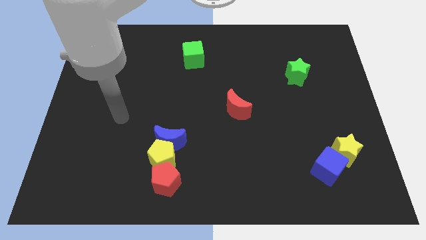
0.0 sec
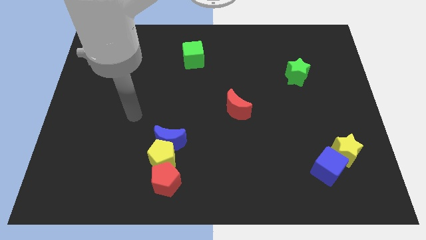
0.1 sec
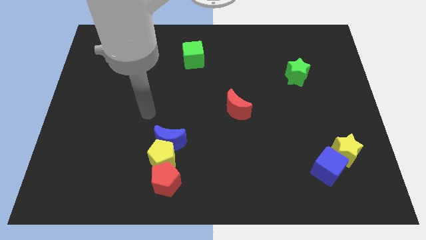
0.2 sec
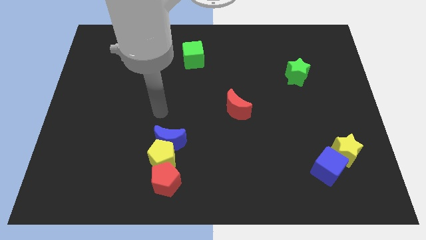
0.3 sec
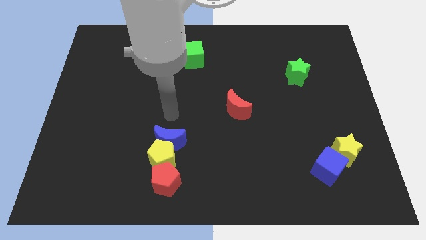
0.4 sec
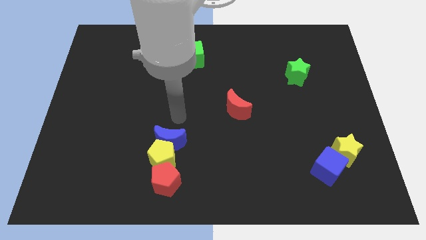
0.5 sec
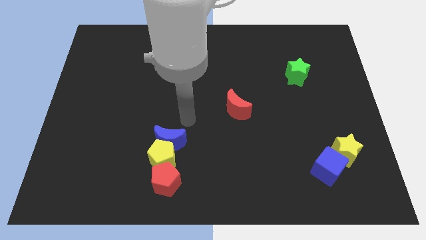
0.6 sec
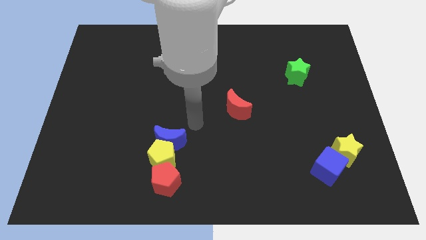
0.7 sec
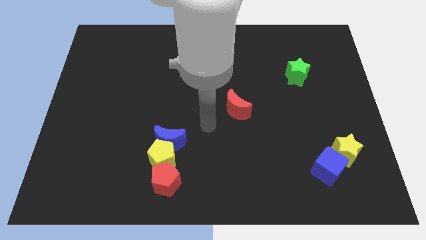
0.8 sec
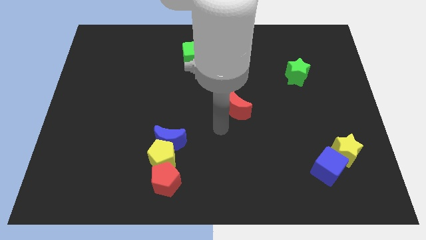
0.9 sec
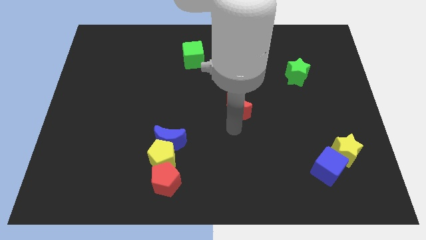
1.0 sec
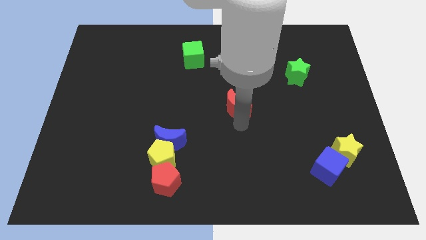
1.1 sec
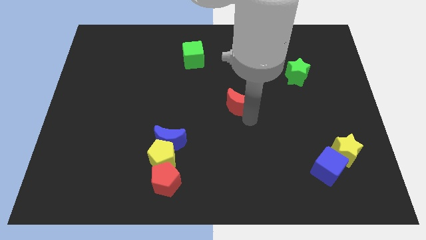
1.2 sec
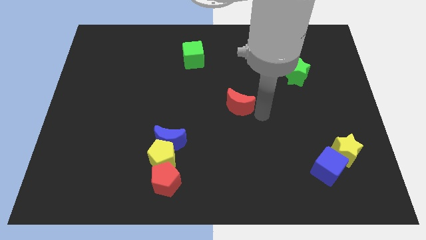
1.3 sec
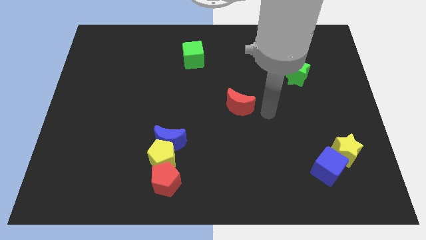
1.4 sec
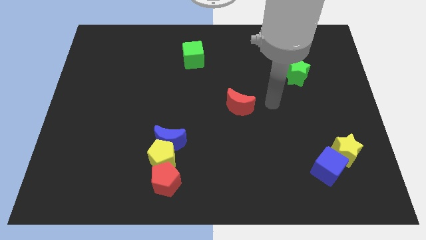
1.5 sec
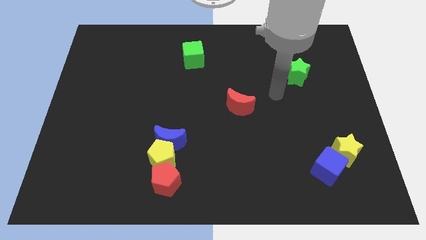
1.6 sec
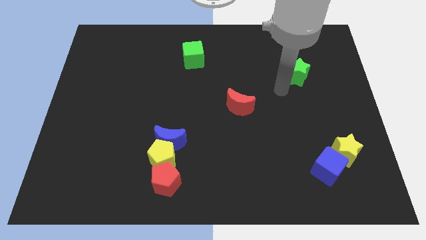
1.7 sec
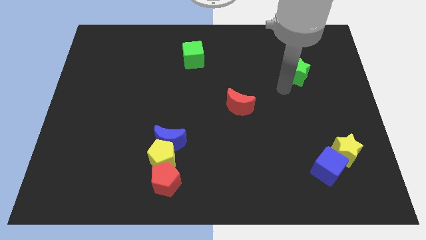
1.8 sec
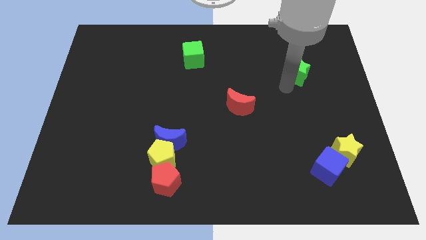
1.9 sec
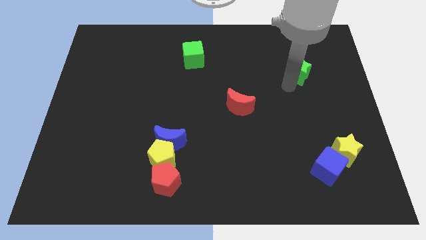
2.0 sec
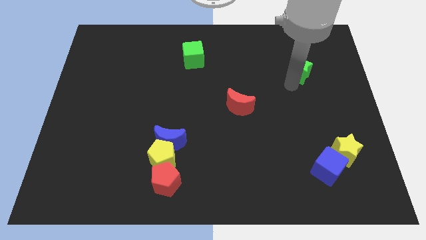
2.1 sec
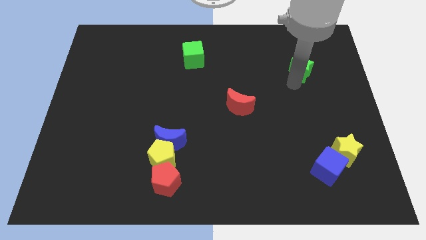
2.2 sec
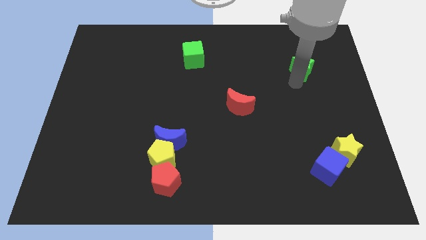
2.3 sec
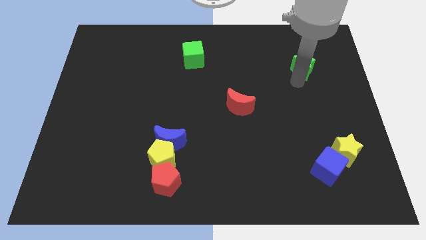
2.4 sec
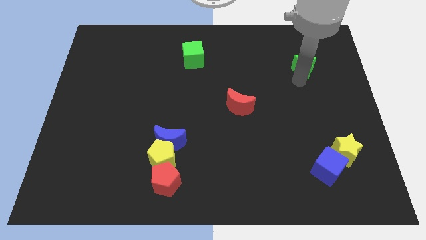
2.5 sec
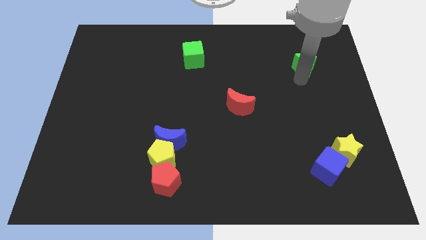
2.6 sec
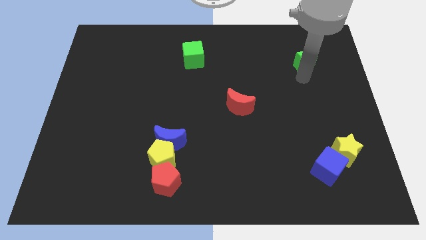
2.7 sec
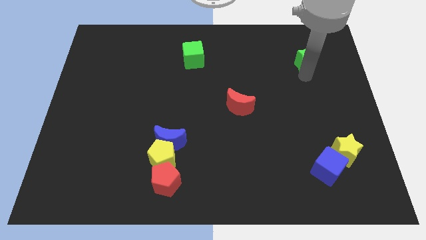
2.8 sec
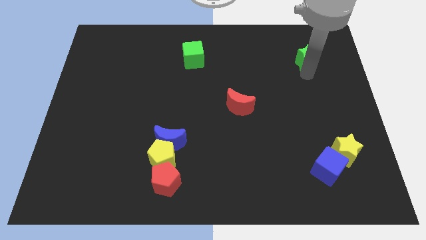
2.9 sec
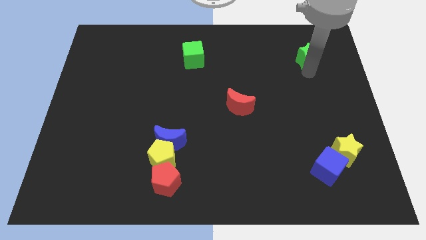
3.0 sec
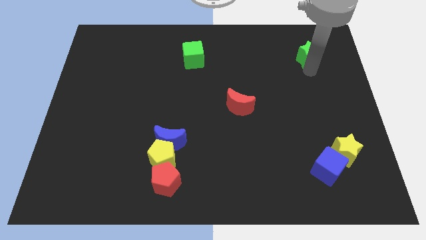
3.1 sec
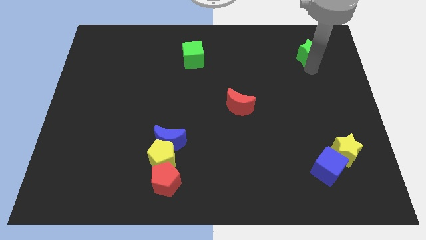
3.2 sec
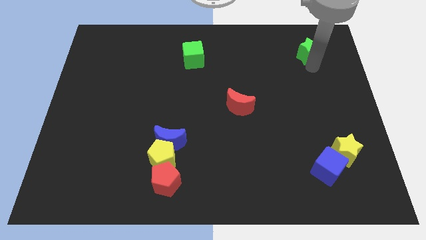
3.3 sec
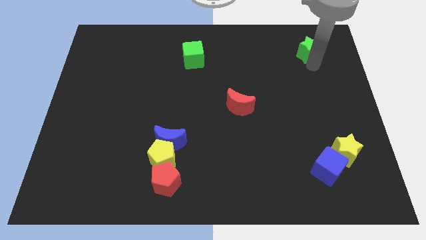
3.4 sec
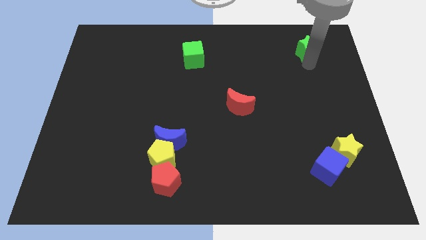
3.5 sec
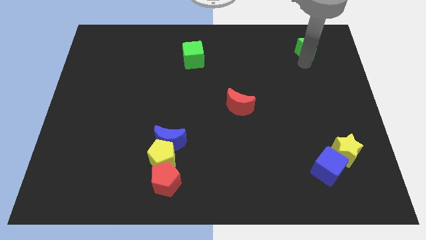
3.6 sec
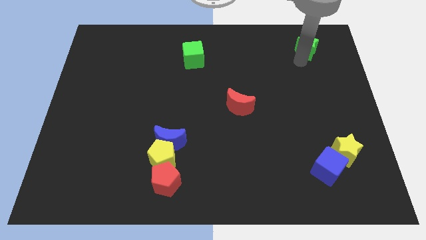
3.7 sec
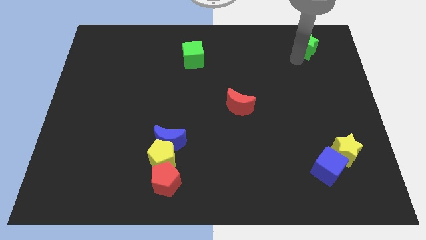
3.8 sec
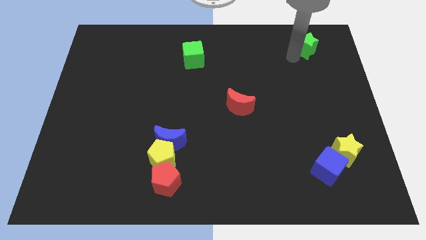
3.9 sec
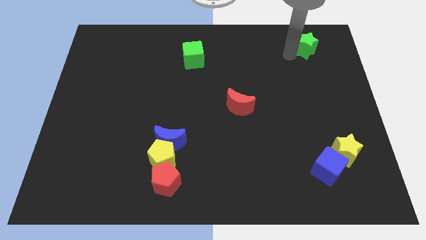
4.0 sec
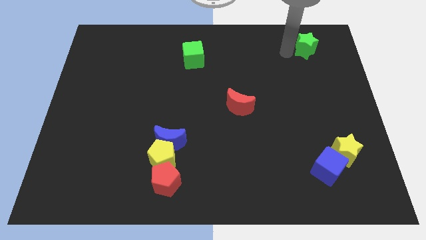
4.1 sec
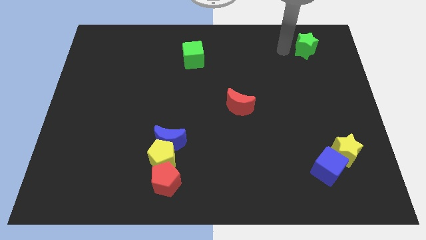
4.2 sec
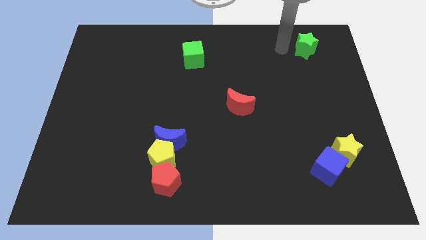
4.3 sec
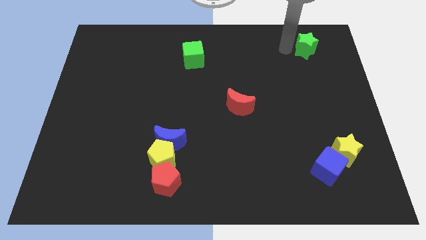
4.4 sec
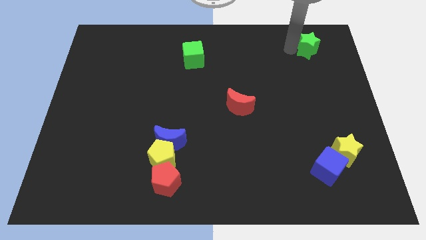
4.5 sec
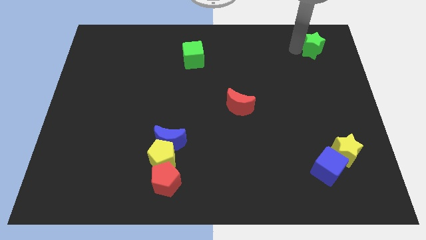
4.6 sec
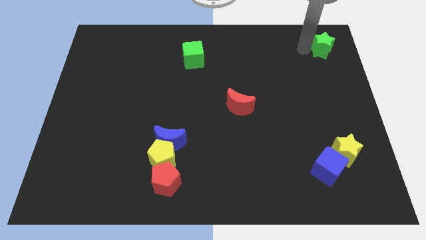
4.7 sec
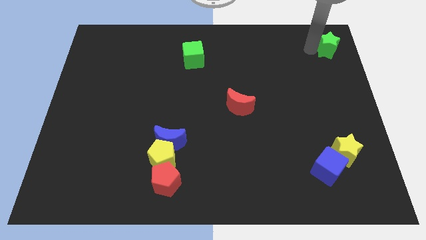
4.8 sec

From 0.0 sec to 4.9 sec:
push the green star to the top right

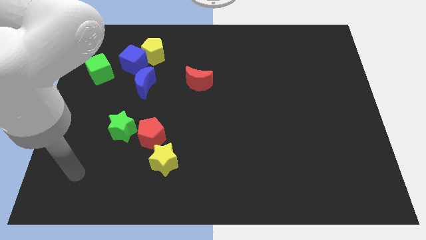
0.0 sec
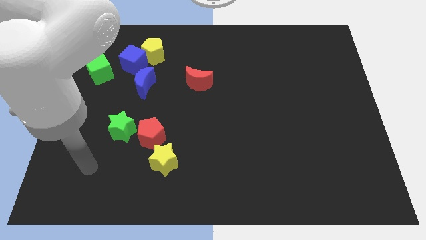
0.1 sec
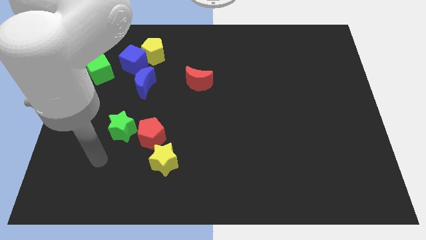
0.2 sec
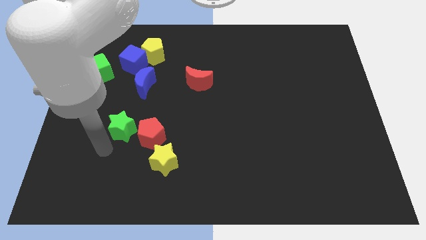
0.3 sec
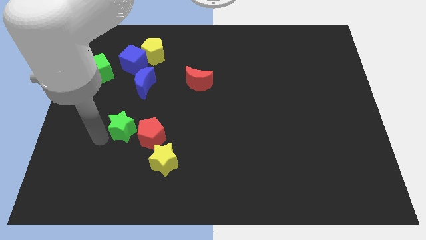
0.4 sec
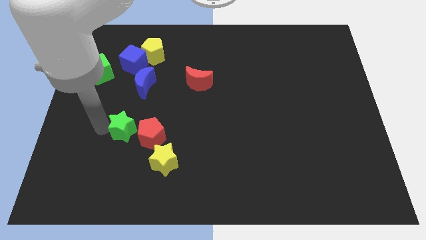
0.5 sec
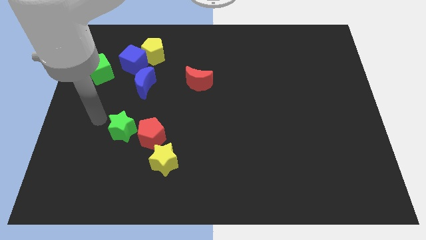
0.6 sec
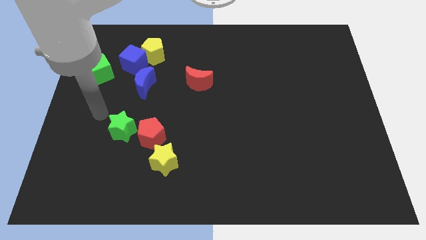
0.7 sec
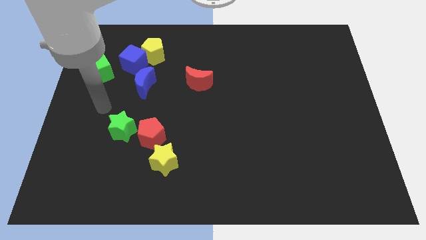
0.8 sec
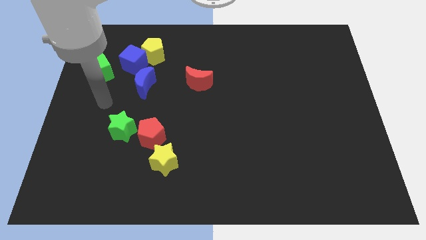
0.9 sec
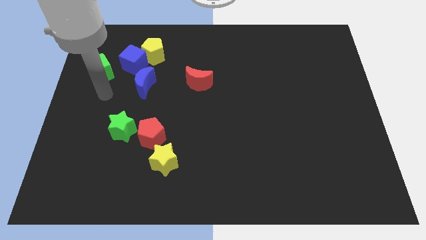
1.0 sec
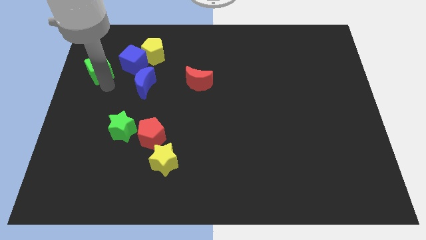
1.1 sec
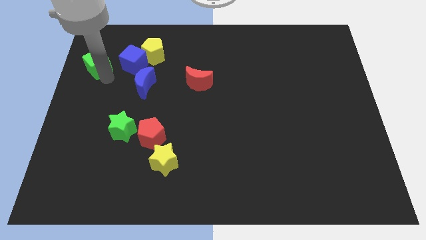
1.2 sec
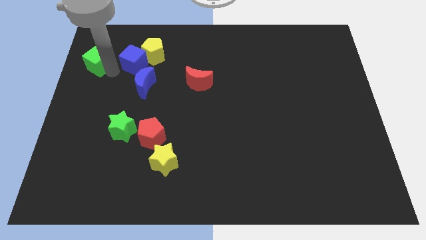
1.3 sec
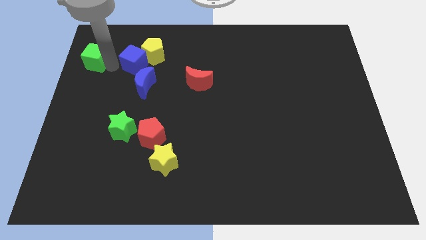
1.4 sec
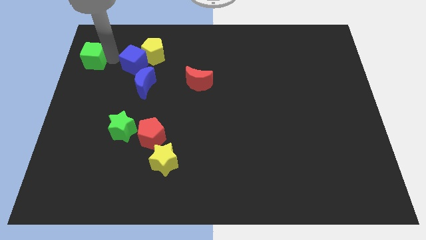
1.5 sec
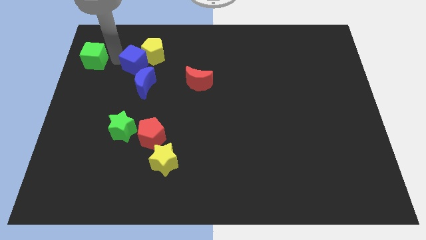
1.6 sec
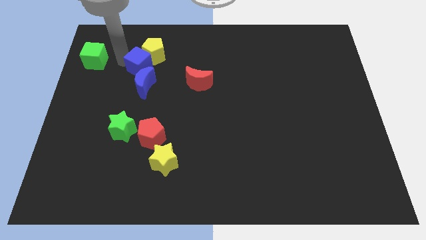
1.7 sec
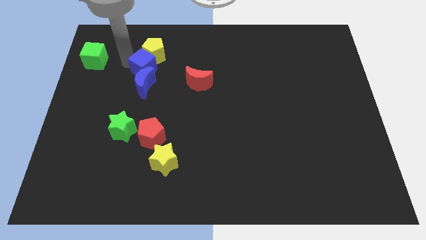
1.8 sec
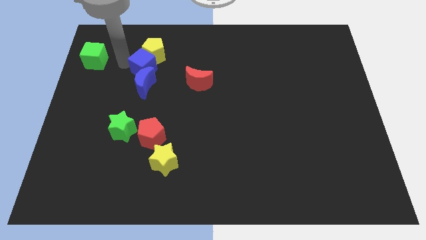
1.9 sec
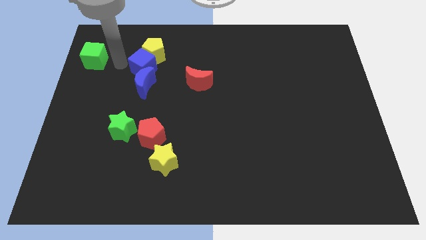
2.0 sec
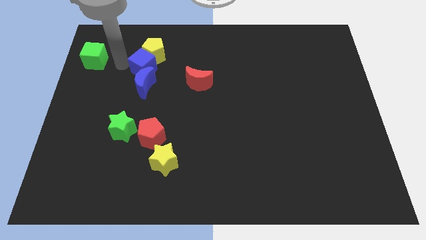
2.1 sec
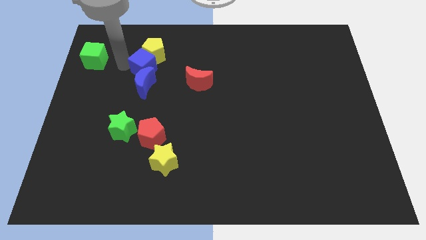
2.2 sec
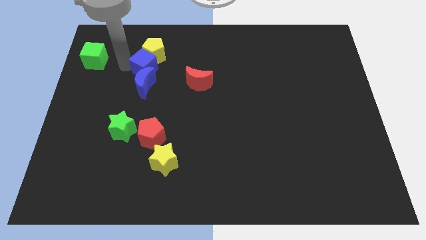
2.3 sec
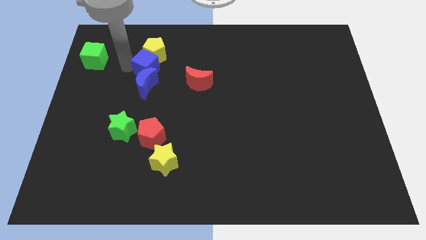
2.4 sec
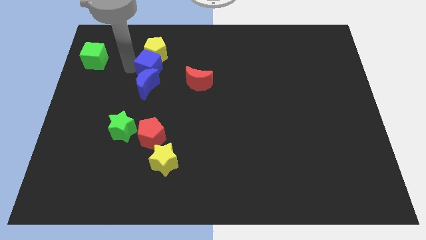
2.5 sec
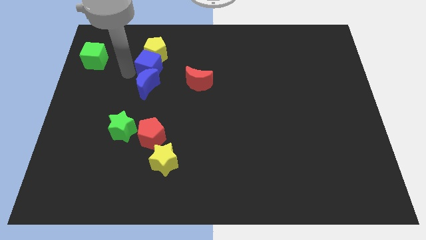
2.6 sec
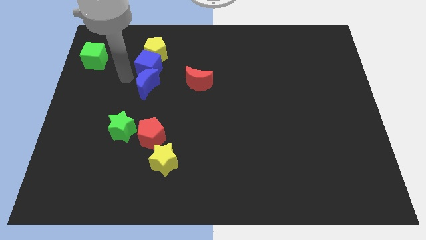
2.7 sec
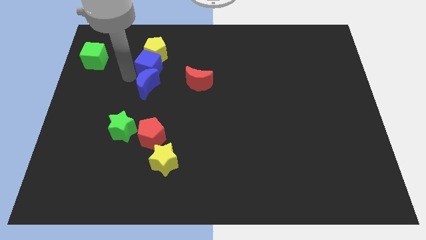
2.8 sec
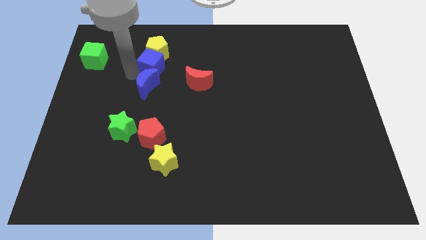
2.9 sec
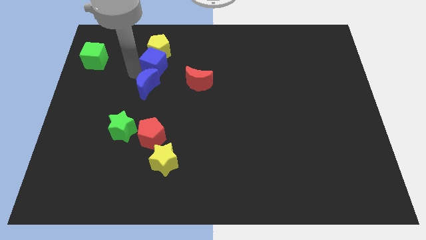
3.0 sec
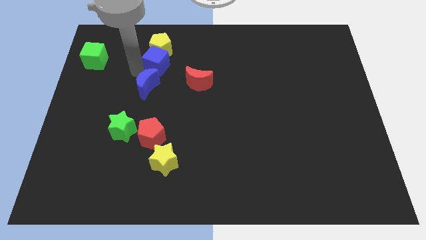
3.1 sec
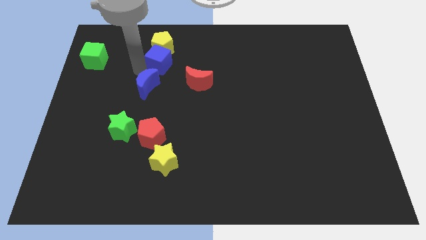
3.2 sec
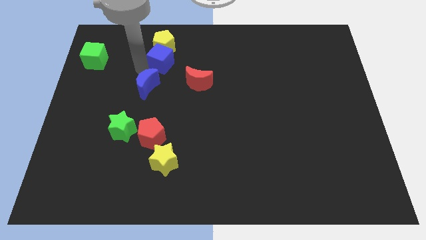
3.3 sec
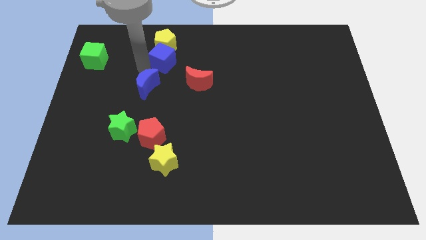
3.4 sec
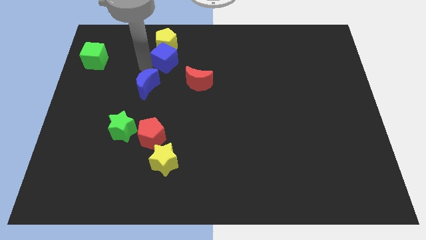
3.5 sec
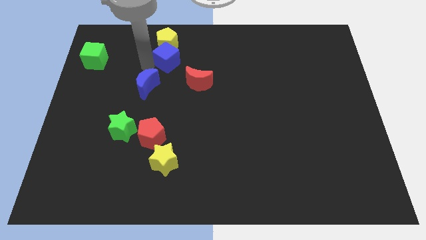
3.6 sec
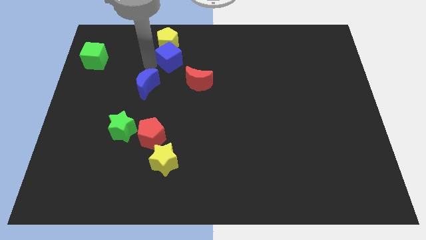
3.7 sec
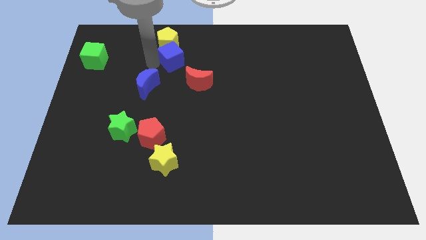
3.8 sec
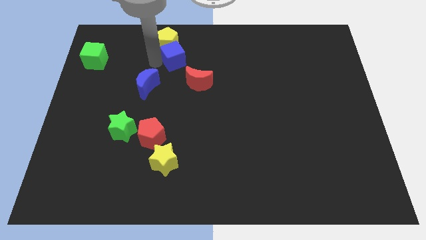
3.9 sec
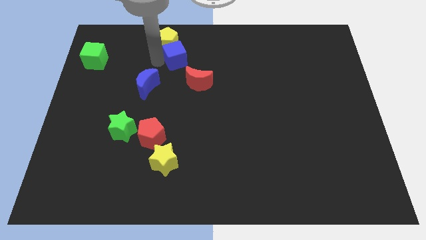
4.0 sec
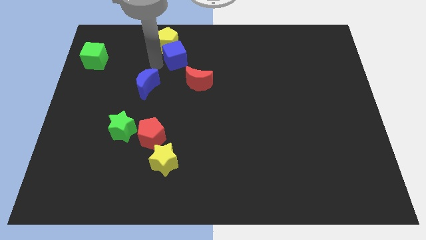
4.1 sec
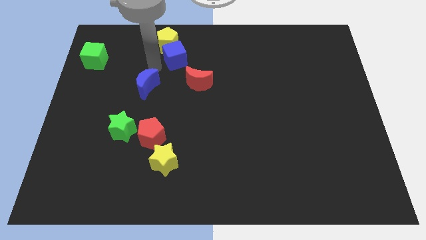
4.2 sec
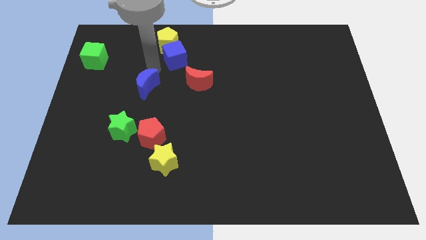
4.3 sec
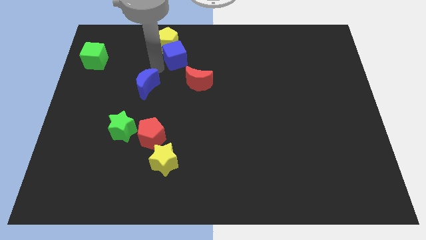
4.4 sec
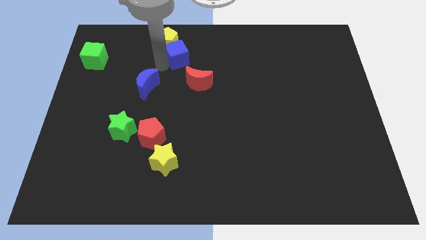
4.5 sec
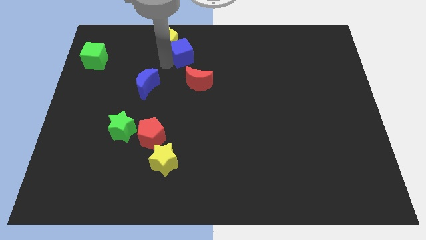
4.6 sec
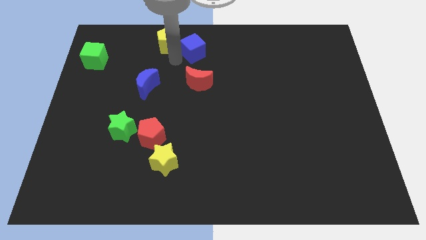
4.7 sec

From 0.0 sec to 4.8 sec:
push the blue cube to the top
